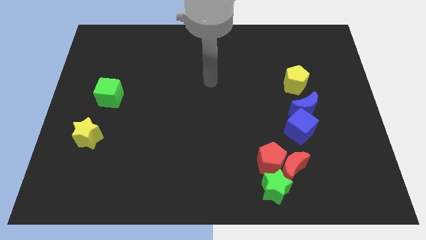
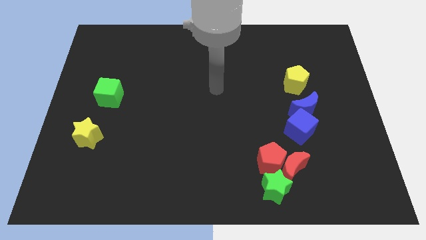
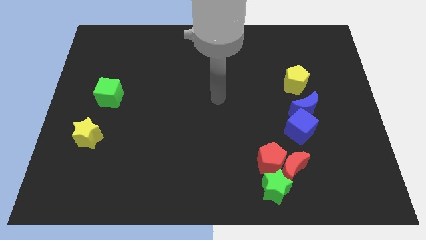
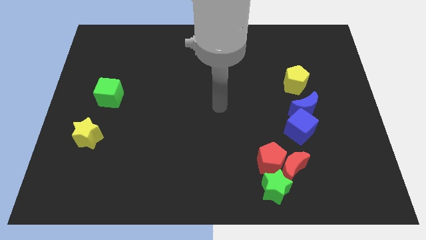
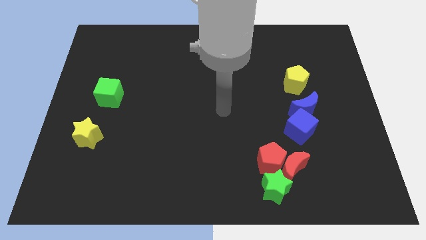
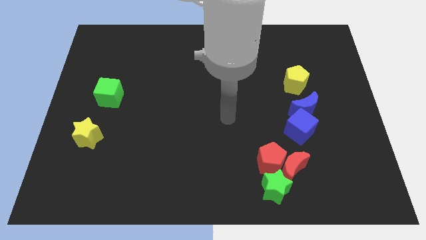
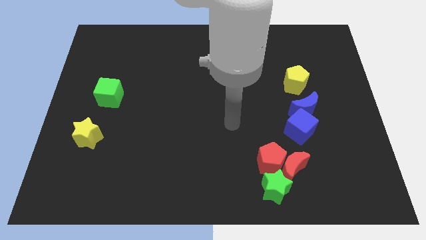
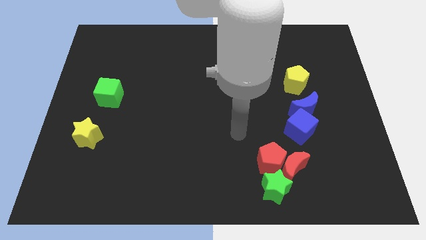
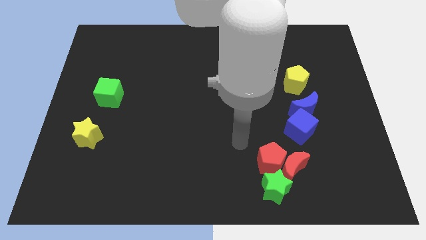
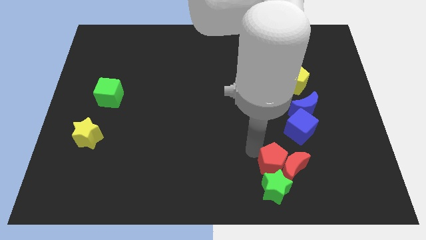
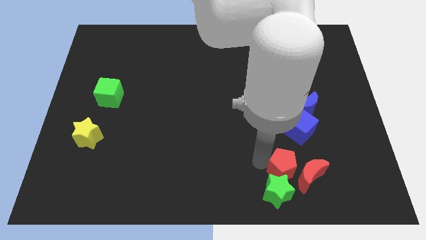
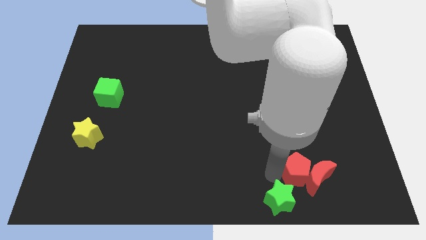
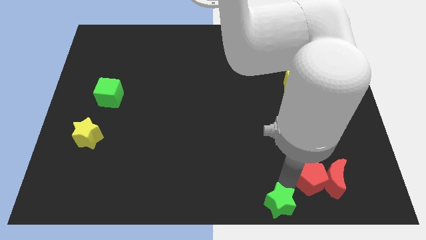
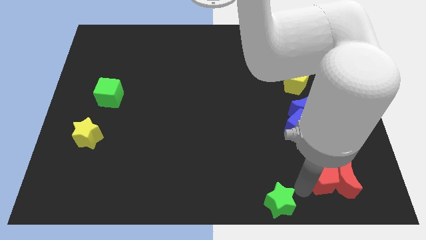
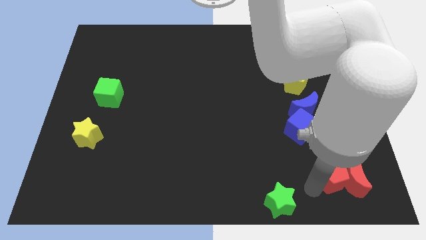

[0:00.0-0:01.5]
move the red moon away from the red pentagon and green star

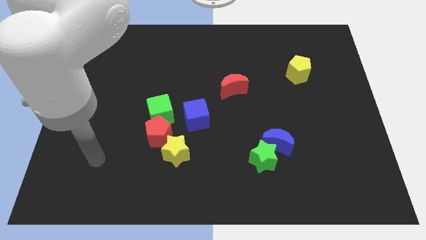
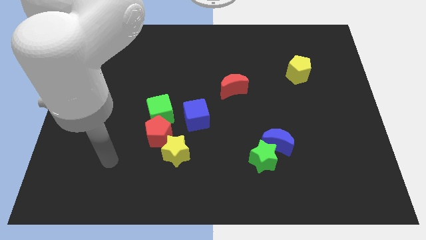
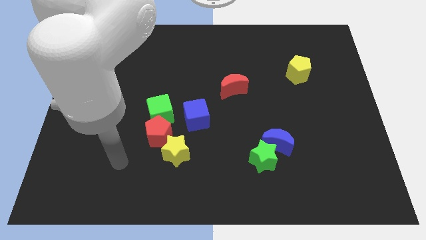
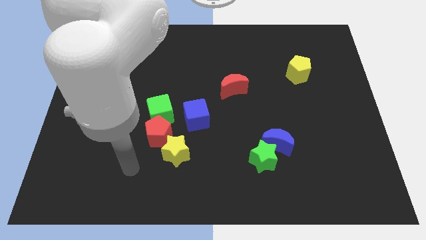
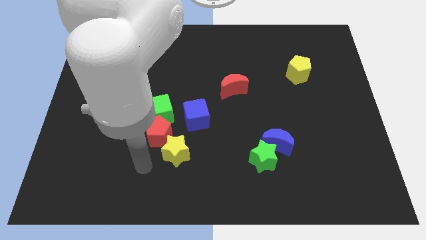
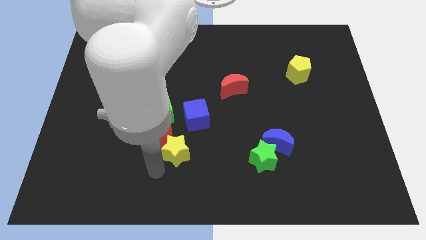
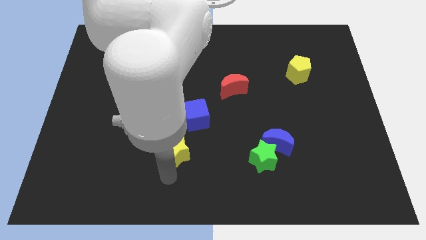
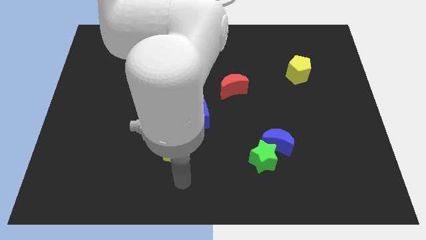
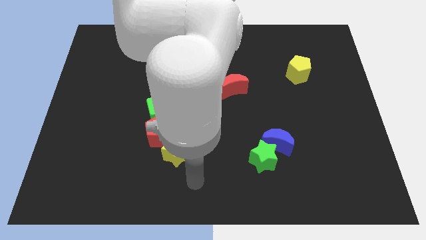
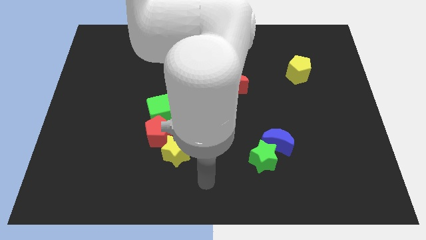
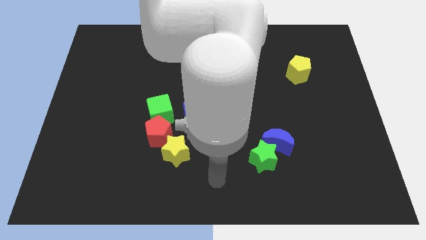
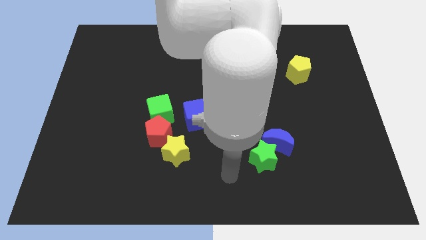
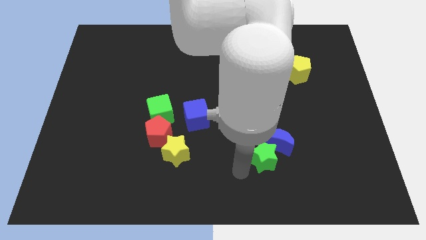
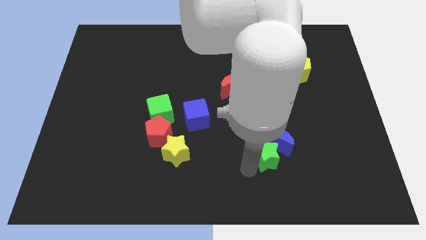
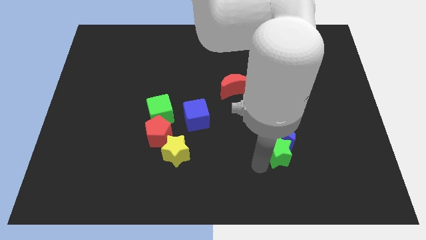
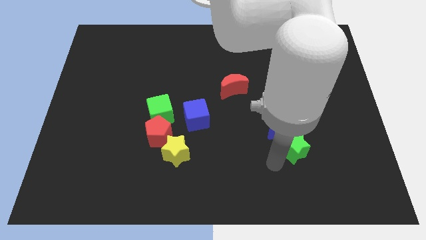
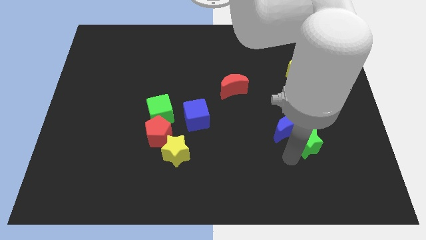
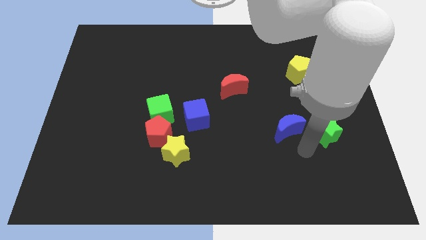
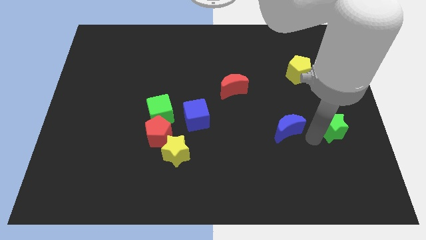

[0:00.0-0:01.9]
move the blue moon away from the green star

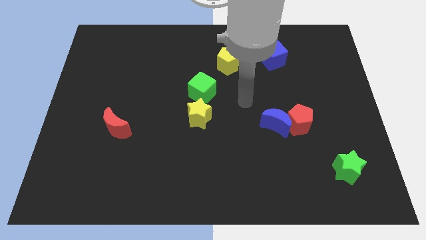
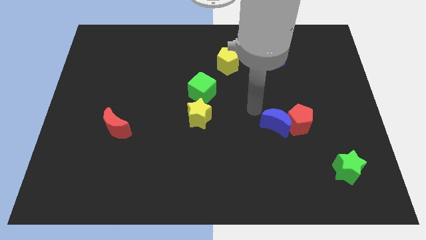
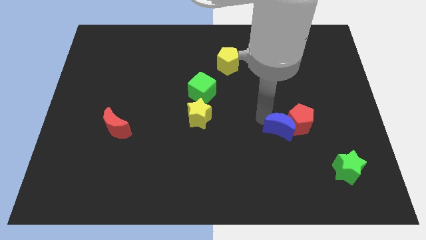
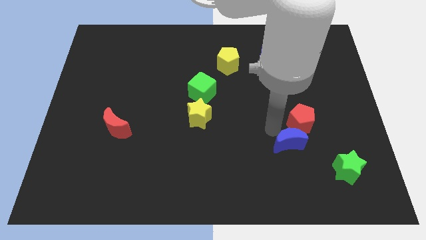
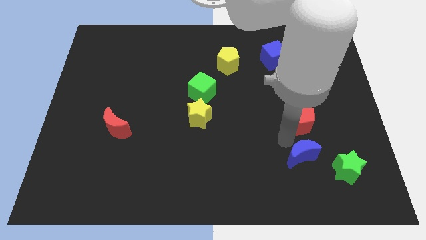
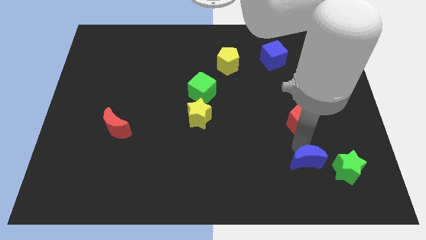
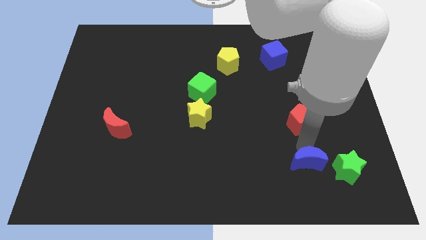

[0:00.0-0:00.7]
pull the red pentagon apart from the blue moon

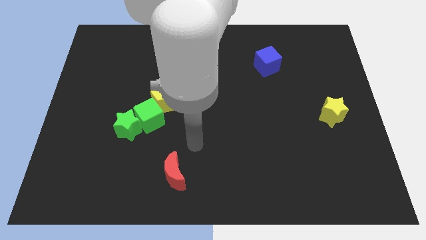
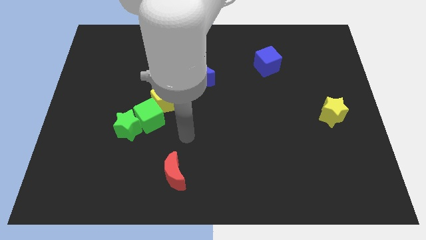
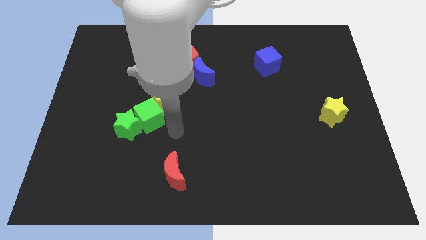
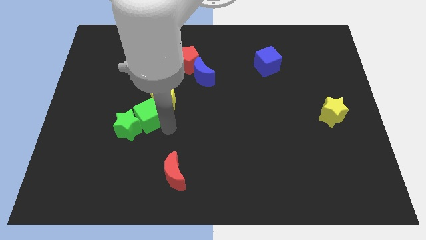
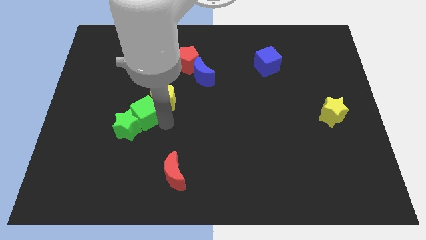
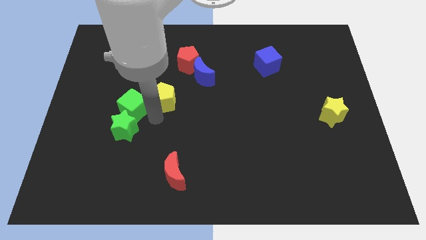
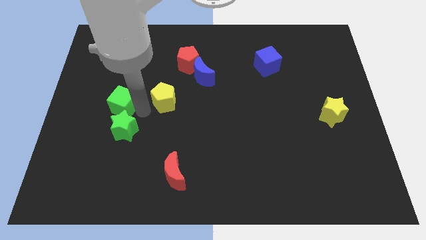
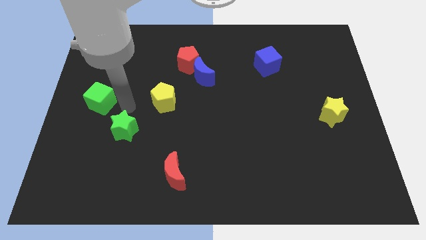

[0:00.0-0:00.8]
pull the green star apart from the green cube

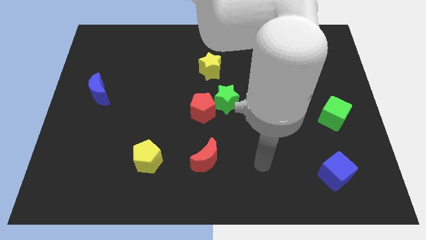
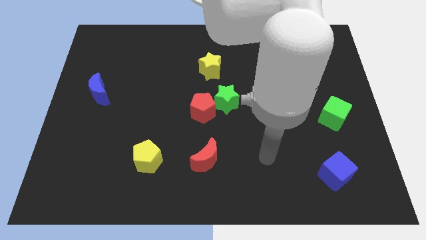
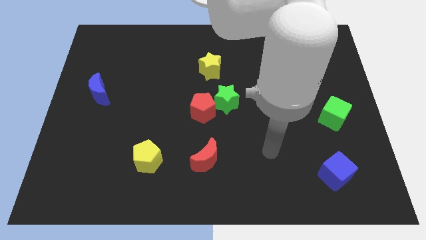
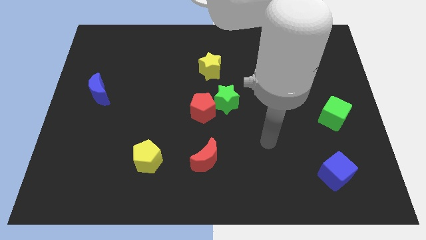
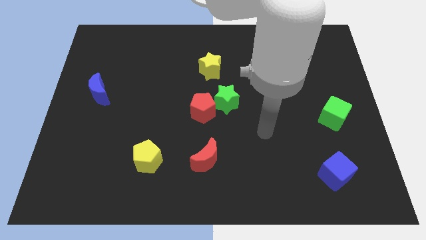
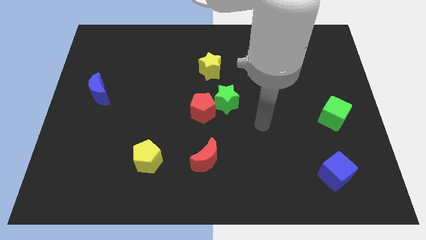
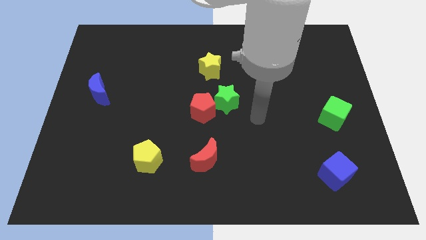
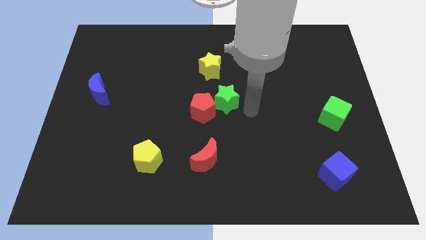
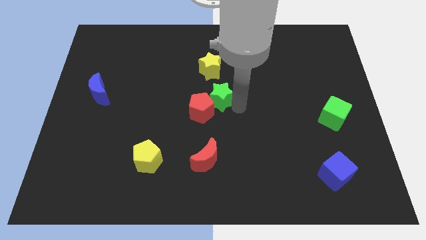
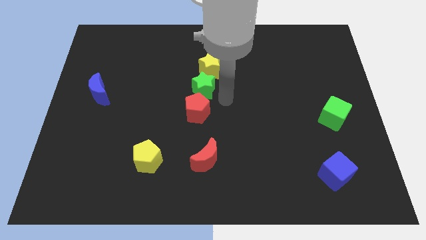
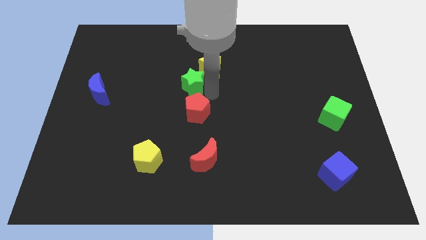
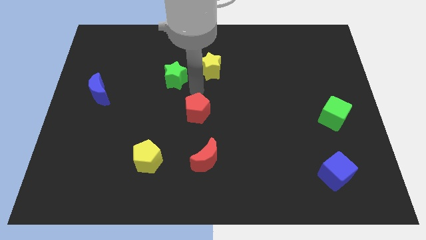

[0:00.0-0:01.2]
move the red pentagon away from the green star

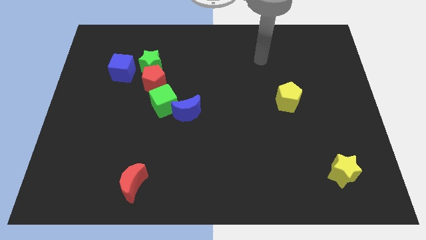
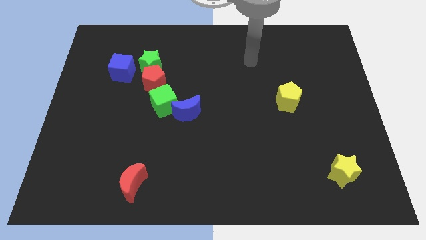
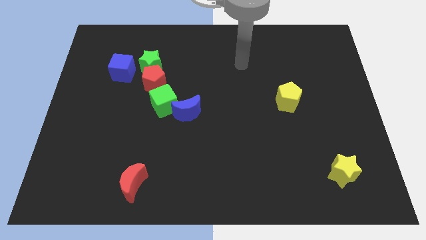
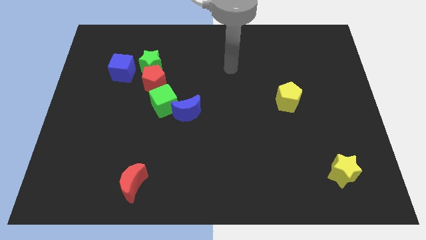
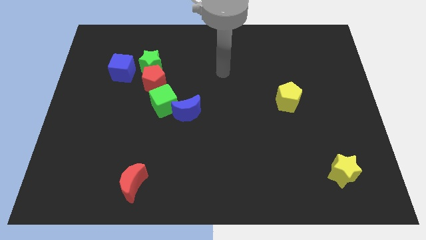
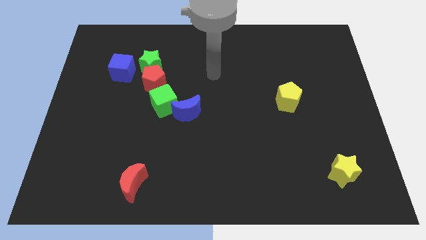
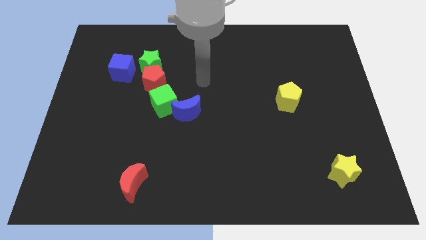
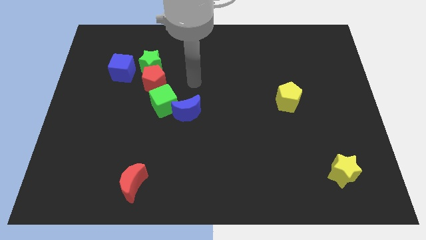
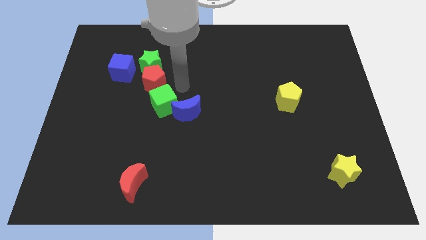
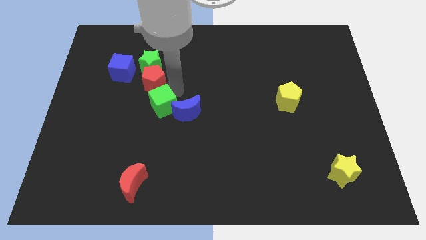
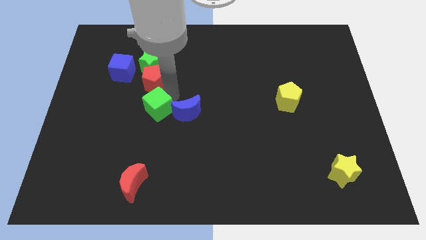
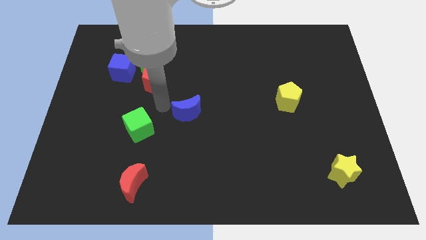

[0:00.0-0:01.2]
pull the blue moon apart from the green cube

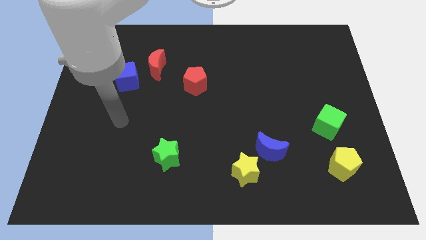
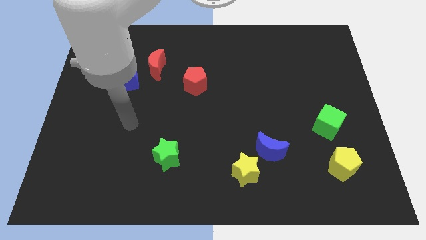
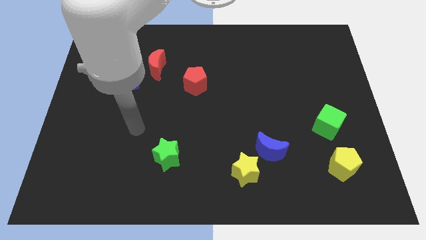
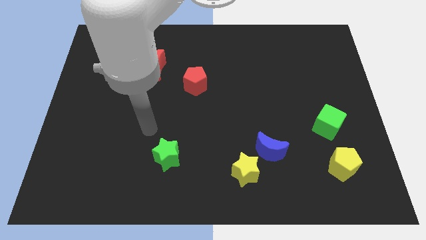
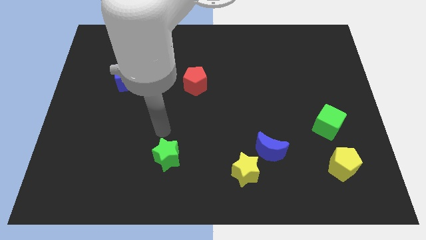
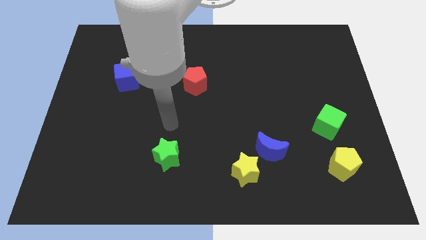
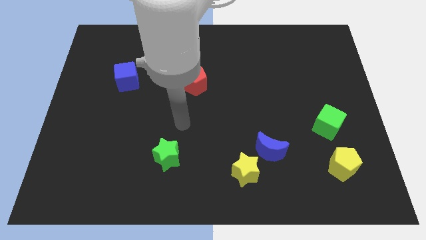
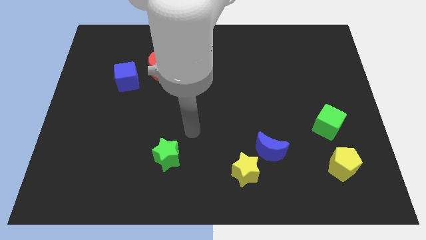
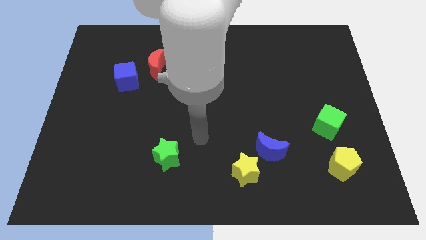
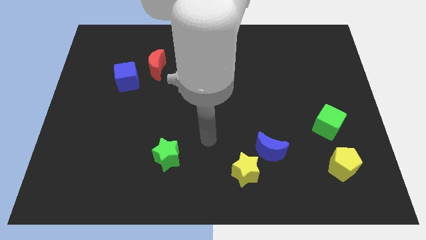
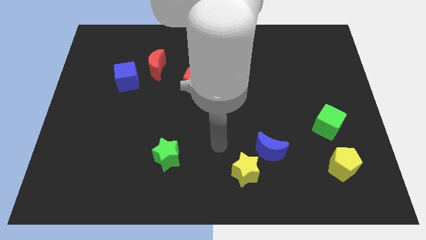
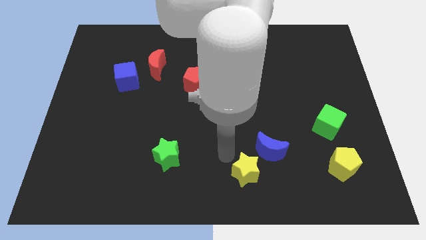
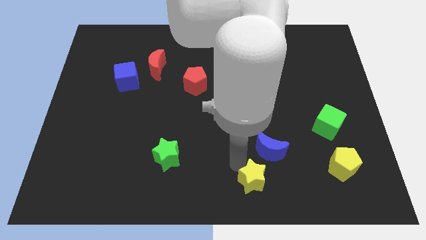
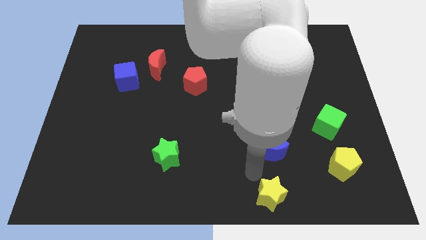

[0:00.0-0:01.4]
move the blue moon away from the yellow star

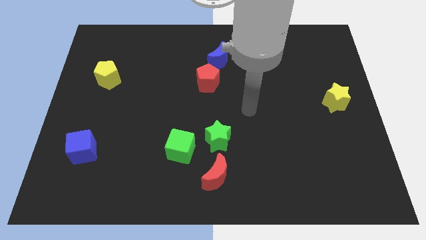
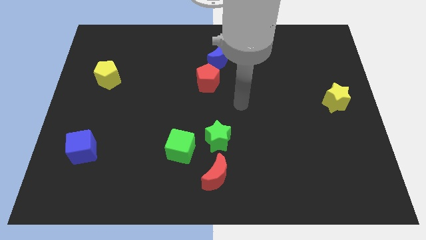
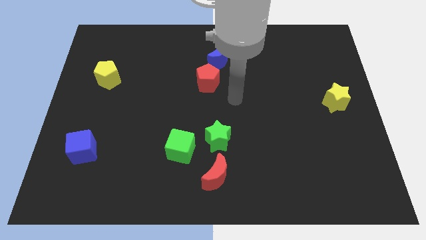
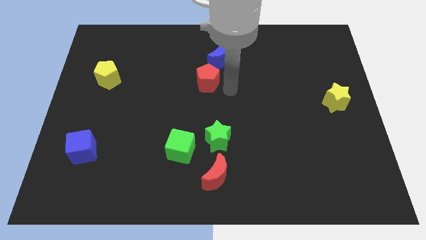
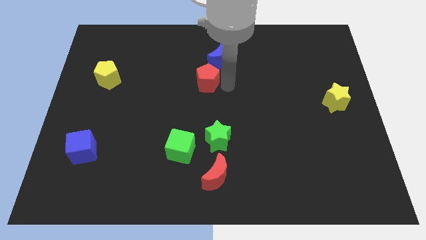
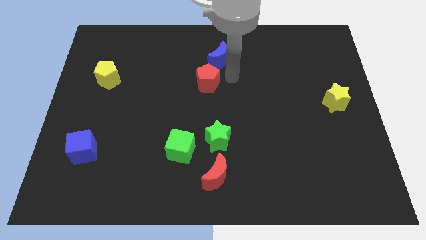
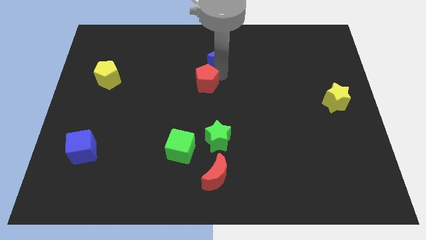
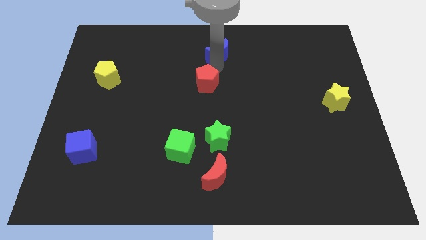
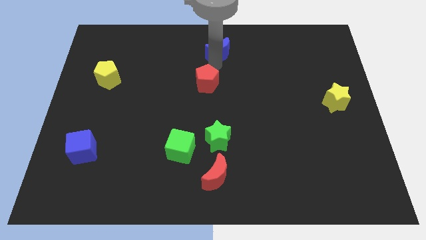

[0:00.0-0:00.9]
separate the red pentagon from the blue moon
